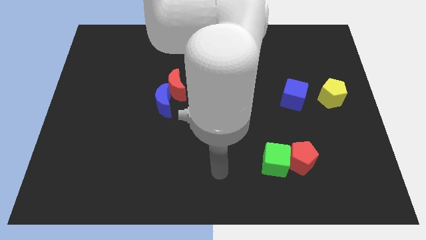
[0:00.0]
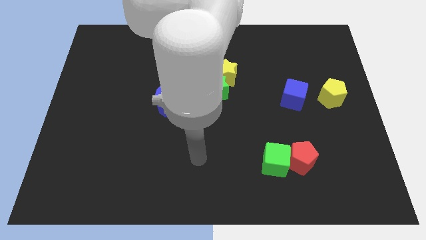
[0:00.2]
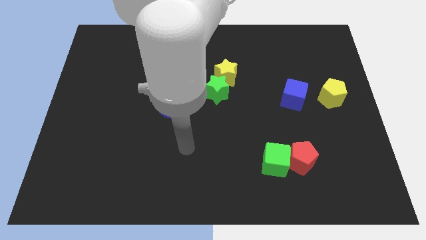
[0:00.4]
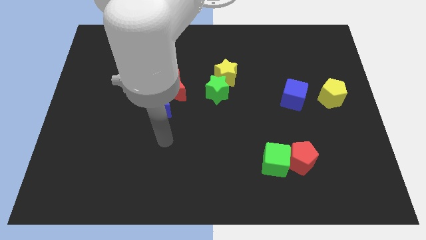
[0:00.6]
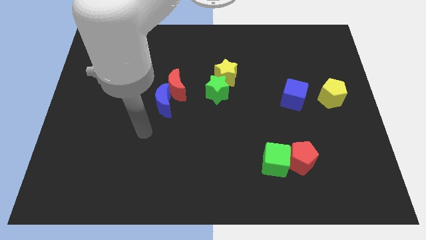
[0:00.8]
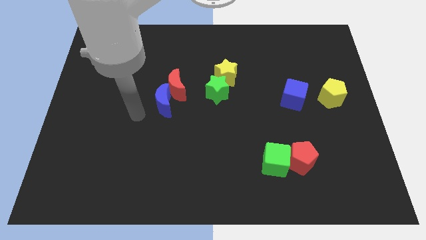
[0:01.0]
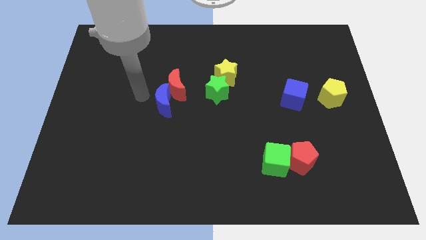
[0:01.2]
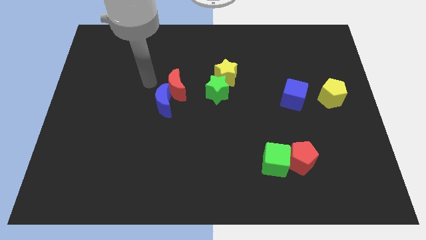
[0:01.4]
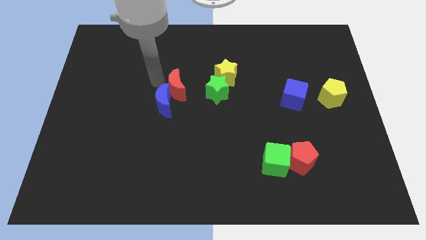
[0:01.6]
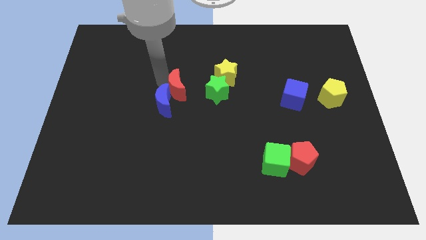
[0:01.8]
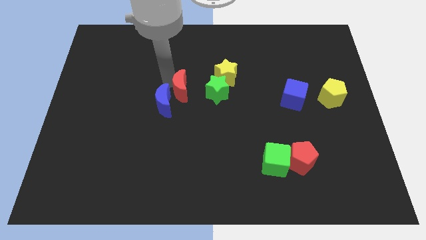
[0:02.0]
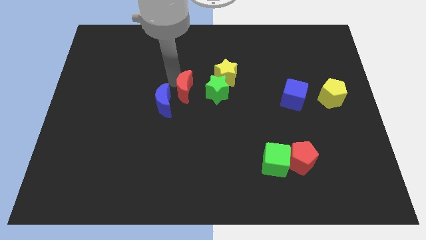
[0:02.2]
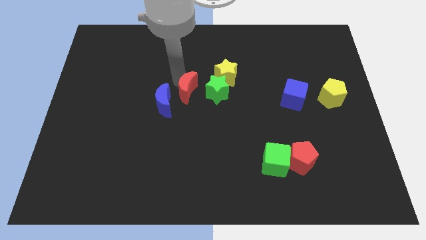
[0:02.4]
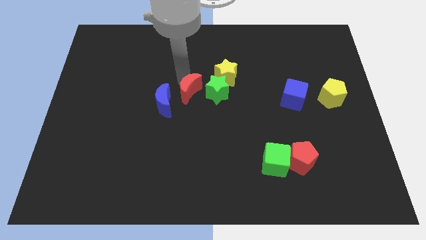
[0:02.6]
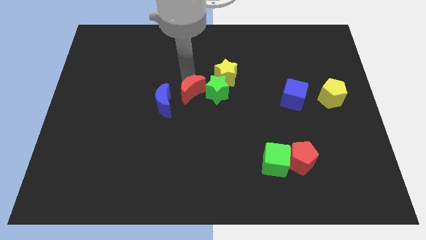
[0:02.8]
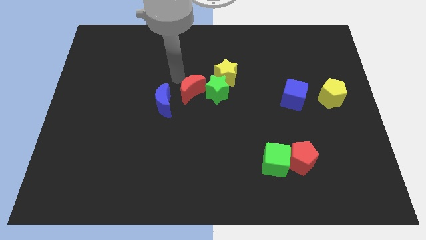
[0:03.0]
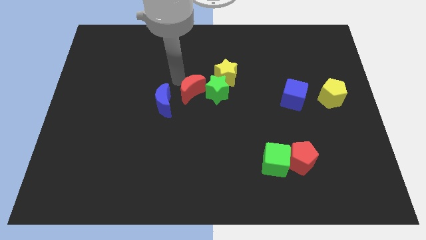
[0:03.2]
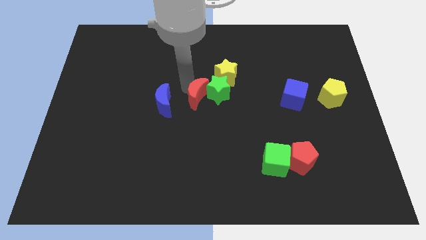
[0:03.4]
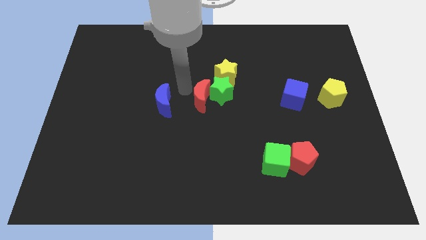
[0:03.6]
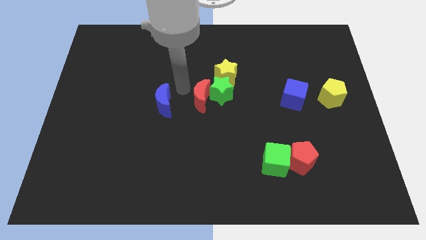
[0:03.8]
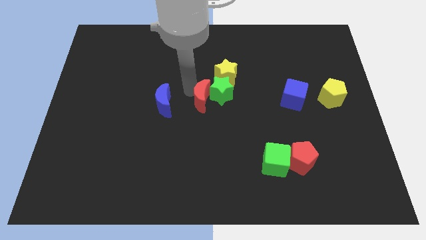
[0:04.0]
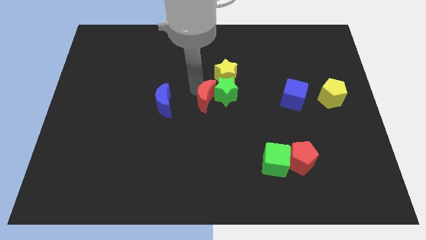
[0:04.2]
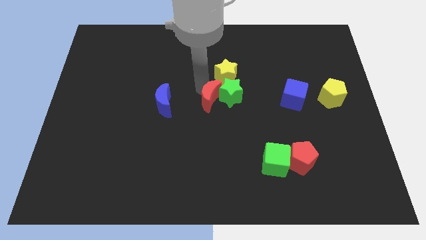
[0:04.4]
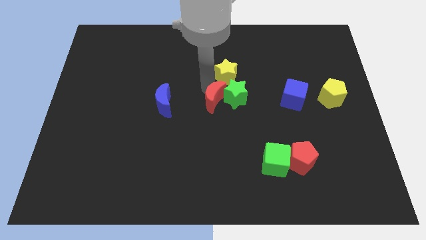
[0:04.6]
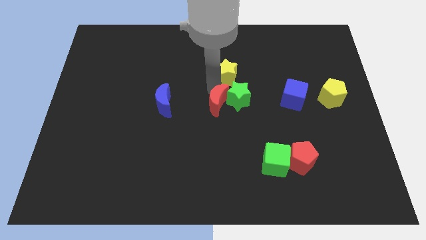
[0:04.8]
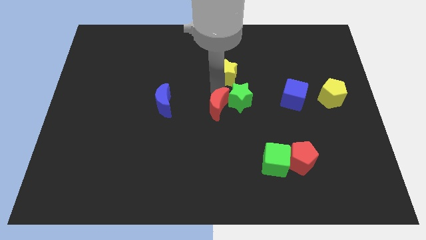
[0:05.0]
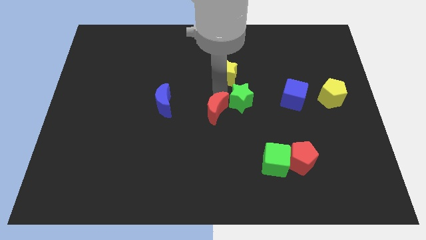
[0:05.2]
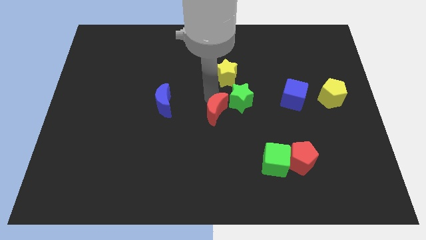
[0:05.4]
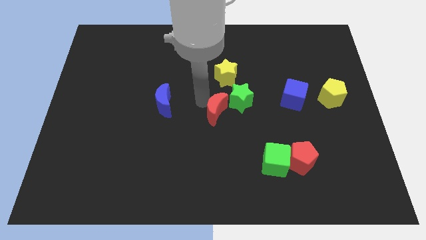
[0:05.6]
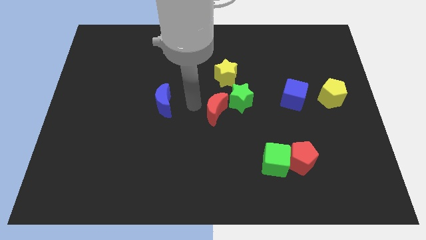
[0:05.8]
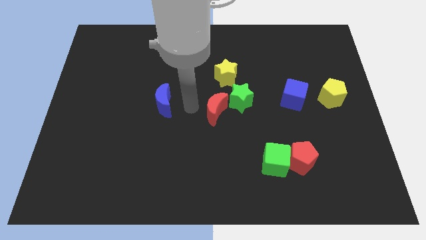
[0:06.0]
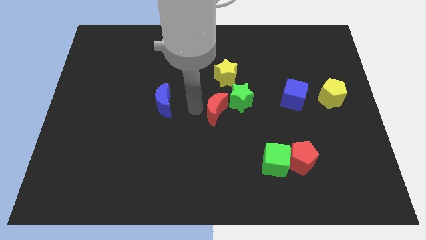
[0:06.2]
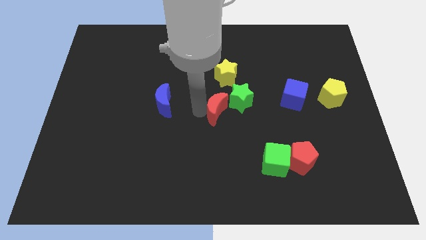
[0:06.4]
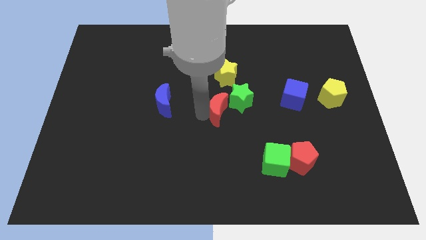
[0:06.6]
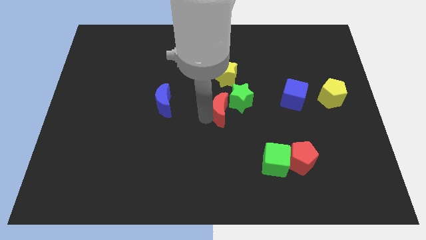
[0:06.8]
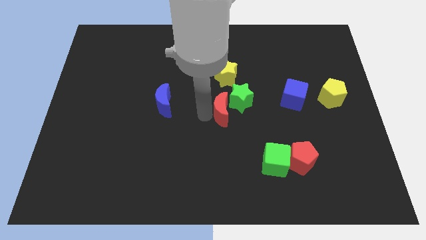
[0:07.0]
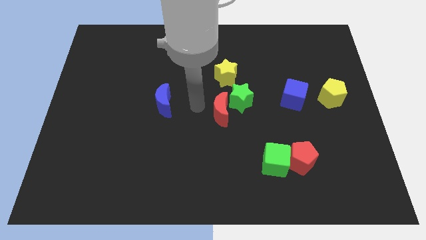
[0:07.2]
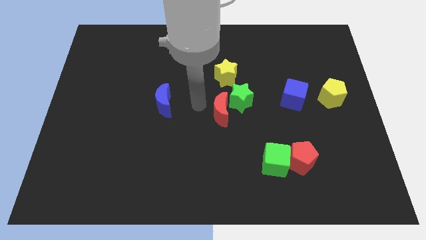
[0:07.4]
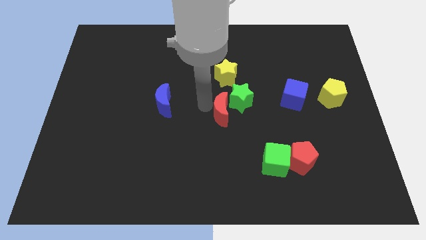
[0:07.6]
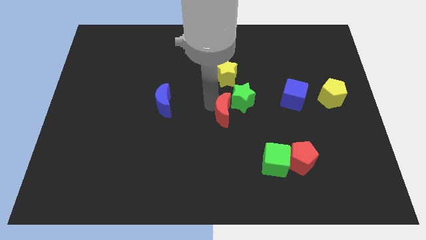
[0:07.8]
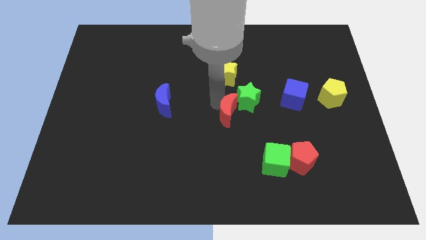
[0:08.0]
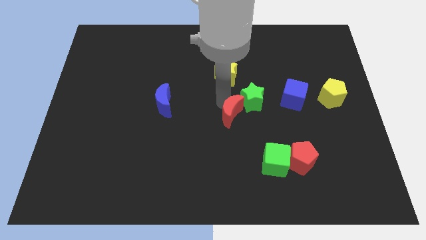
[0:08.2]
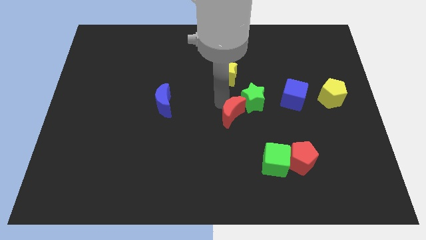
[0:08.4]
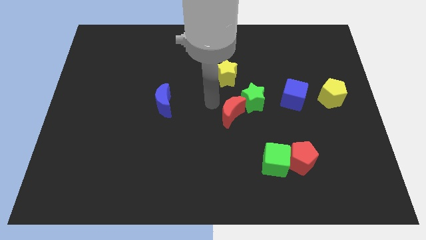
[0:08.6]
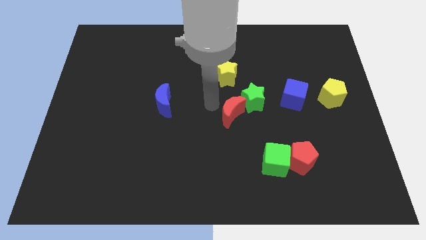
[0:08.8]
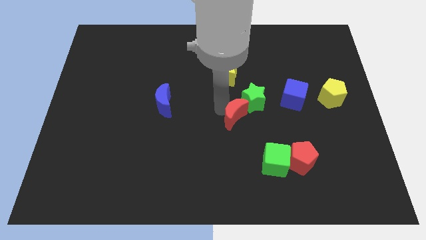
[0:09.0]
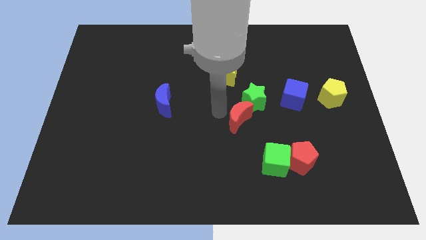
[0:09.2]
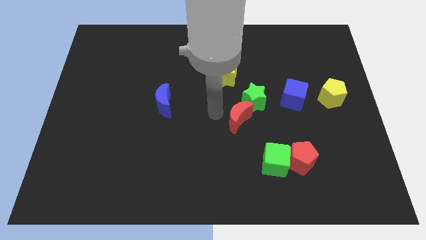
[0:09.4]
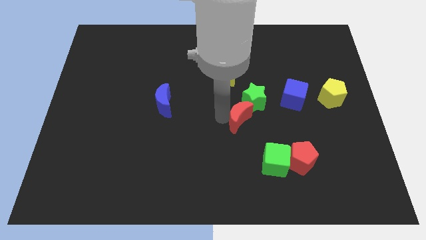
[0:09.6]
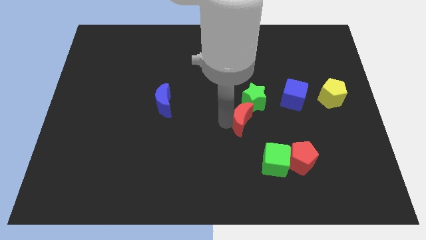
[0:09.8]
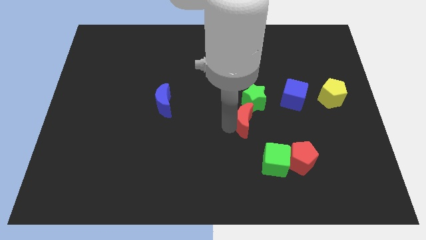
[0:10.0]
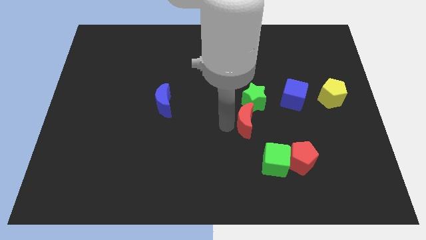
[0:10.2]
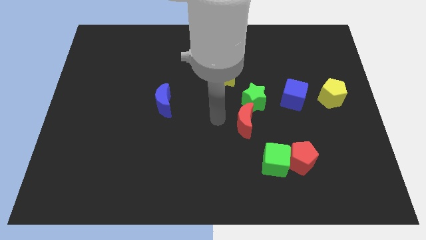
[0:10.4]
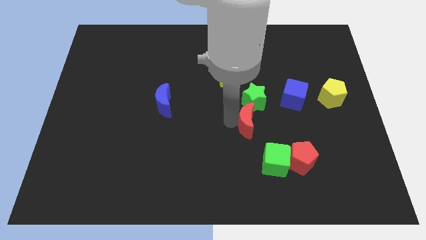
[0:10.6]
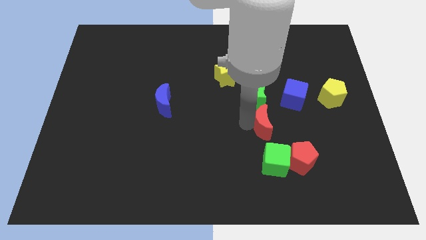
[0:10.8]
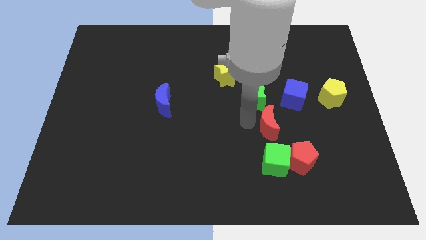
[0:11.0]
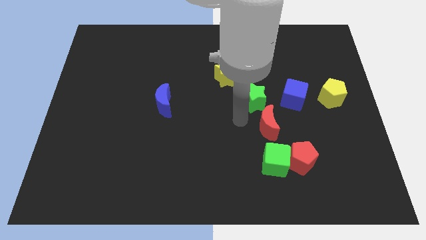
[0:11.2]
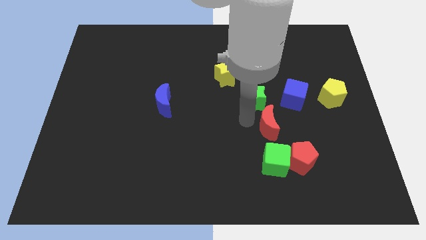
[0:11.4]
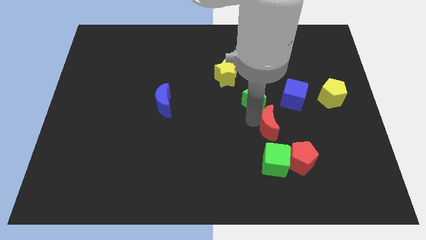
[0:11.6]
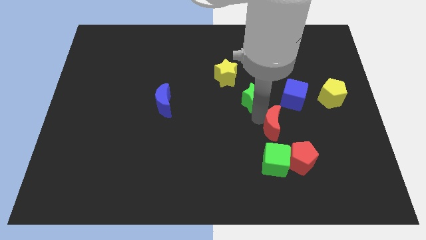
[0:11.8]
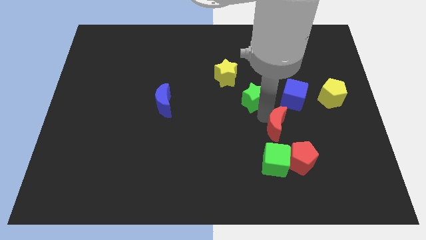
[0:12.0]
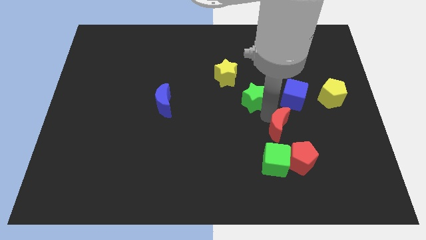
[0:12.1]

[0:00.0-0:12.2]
push the red moon to the bottom side of the blue cube
